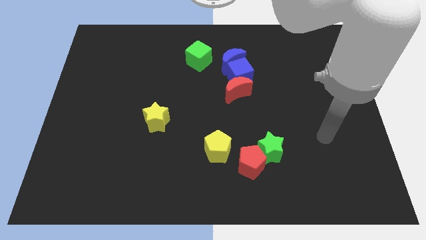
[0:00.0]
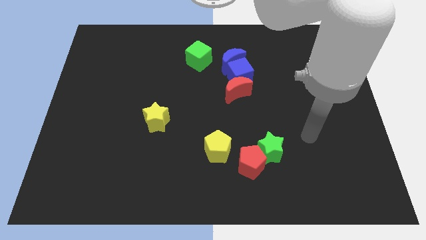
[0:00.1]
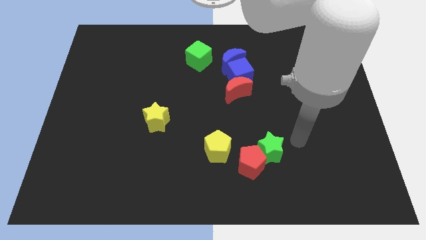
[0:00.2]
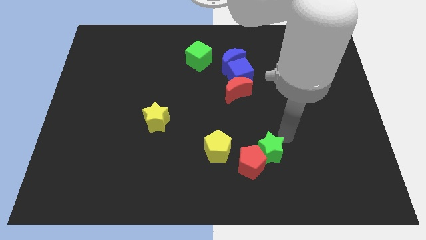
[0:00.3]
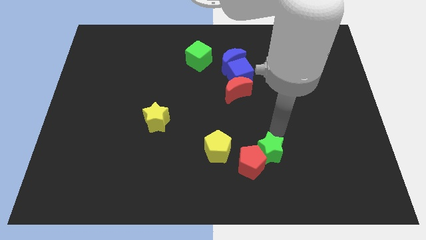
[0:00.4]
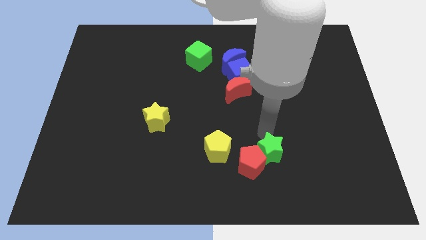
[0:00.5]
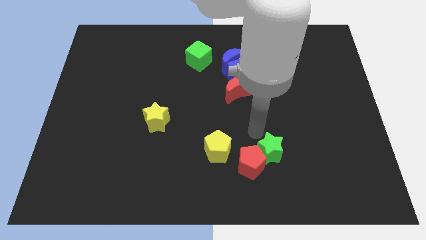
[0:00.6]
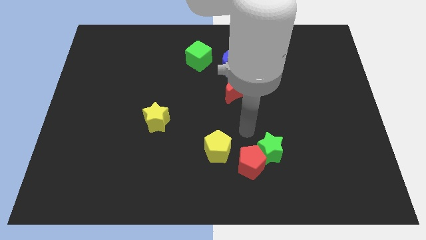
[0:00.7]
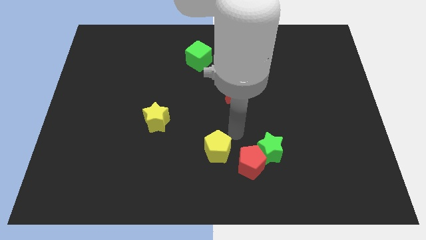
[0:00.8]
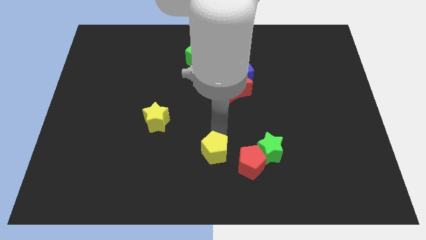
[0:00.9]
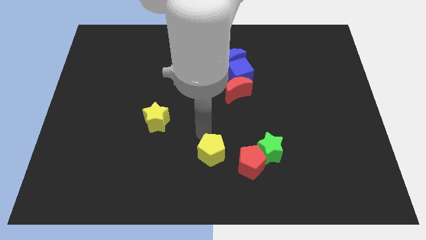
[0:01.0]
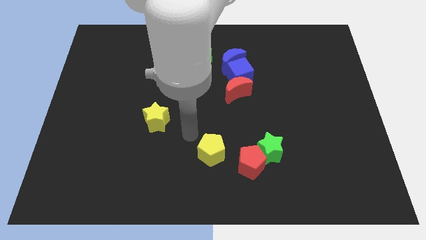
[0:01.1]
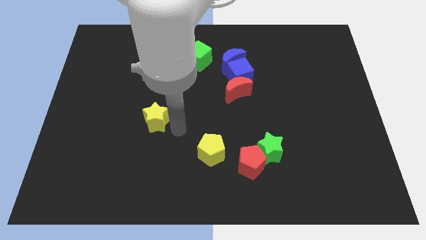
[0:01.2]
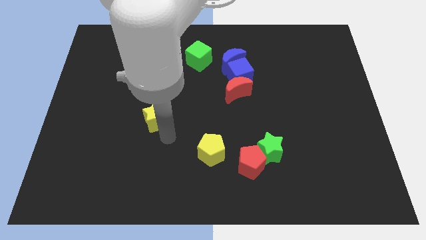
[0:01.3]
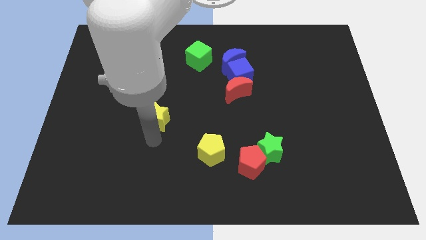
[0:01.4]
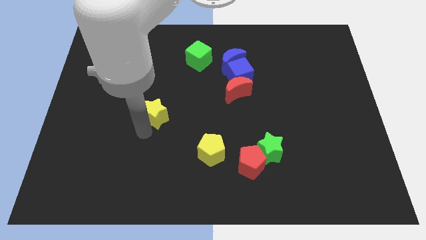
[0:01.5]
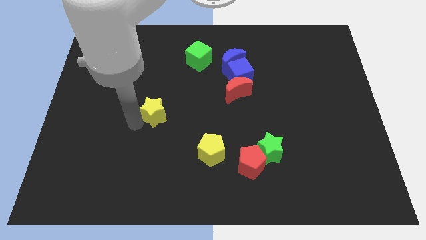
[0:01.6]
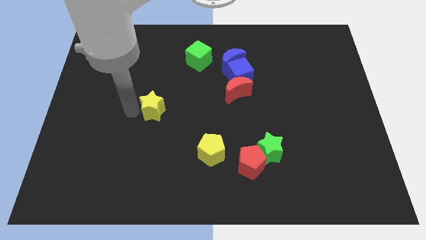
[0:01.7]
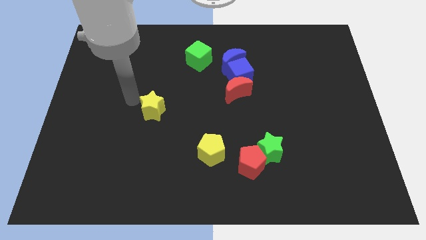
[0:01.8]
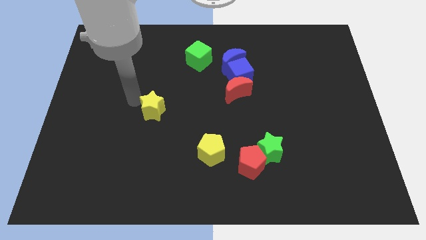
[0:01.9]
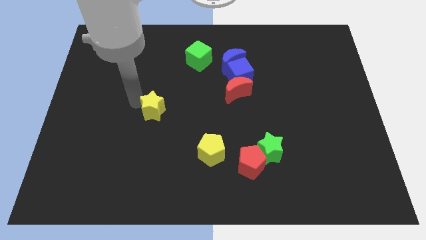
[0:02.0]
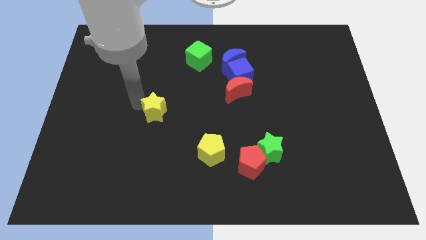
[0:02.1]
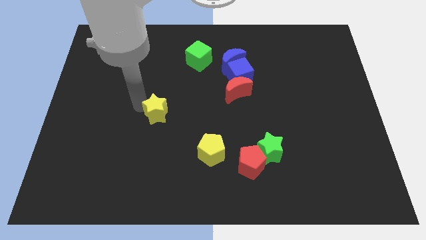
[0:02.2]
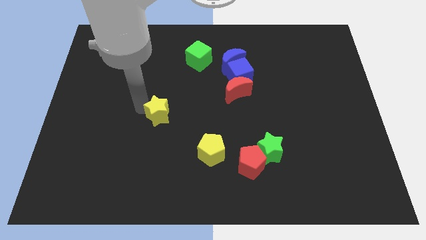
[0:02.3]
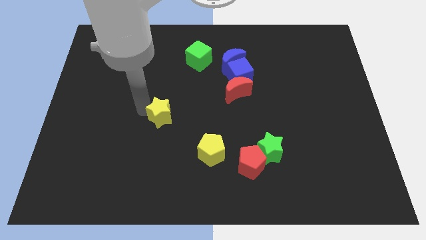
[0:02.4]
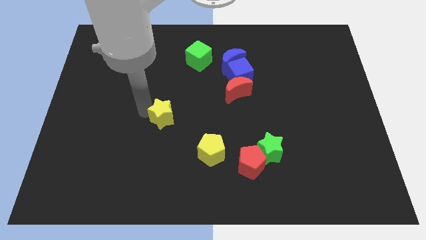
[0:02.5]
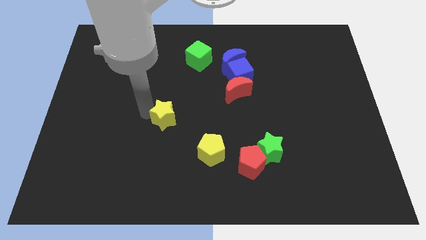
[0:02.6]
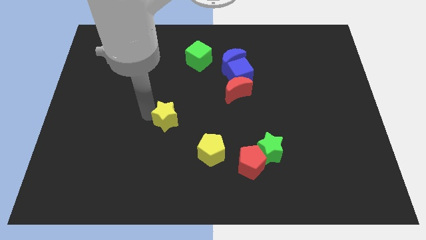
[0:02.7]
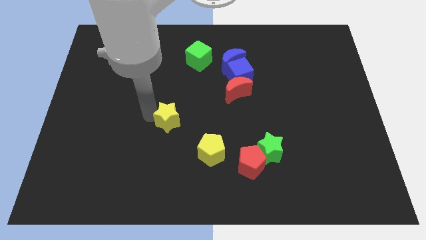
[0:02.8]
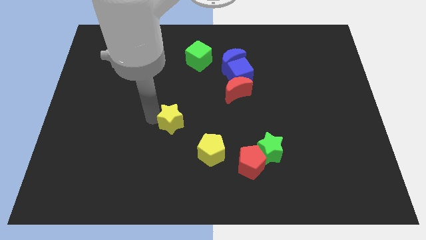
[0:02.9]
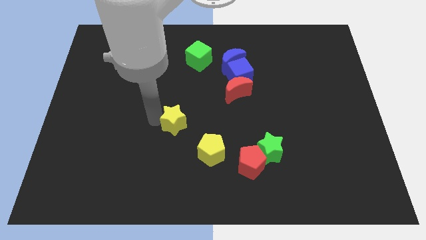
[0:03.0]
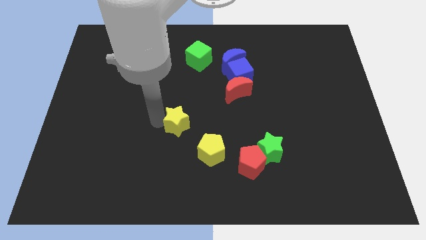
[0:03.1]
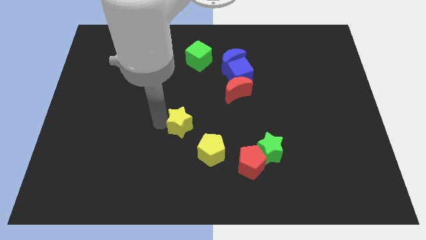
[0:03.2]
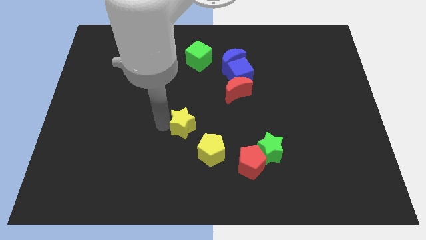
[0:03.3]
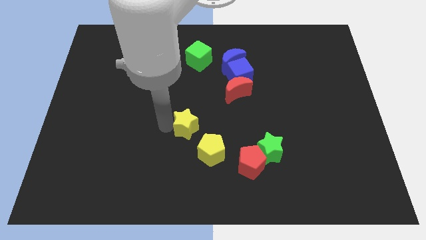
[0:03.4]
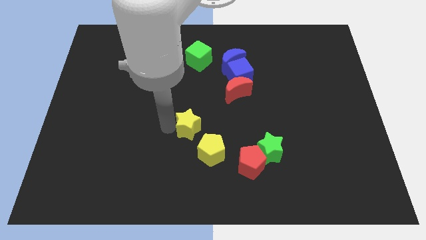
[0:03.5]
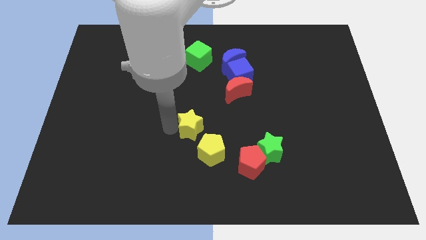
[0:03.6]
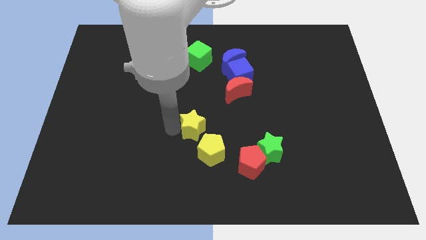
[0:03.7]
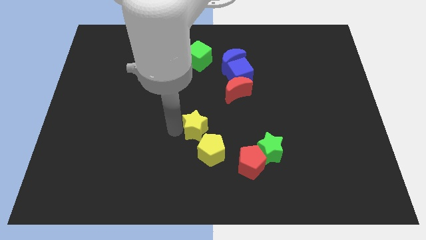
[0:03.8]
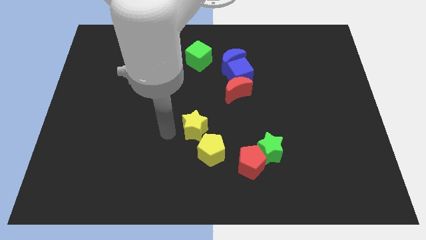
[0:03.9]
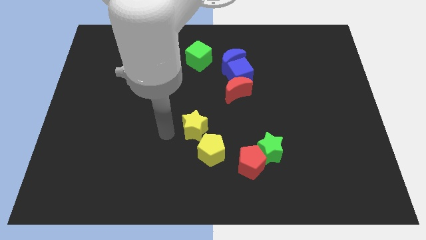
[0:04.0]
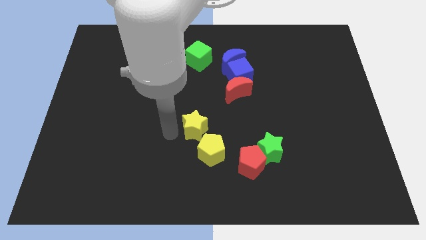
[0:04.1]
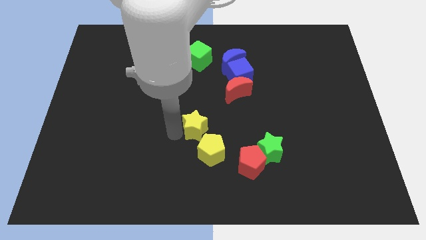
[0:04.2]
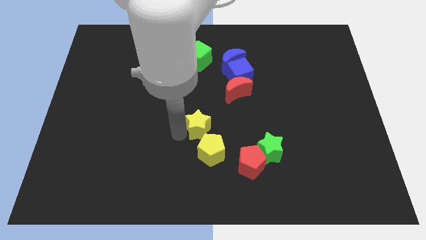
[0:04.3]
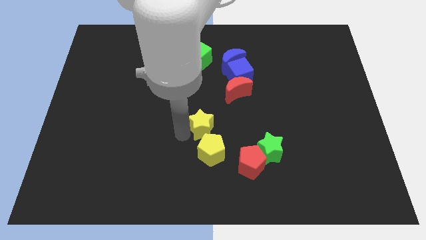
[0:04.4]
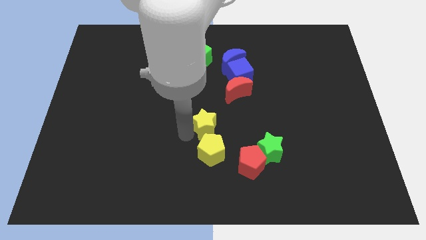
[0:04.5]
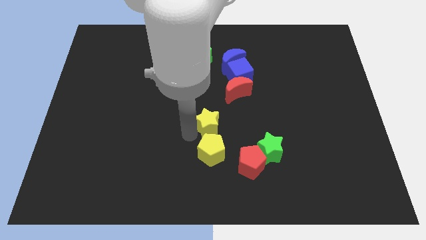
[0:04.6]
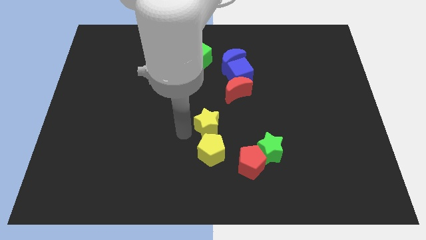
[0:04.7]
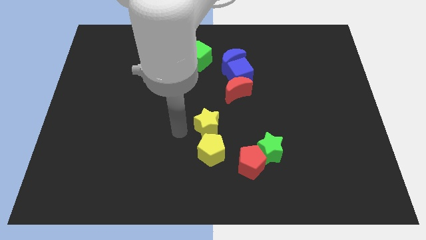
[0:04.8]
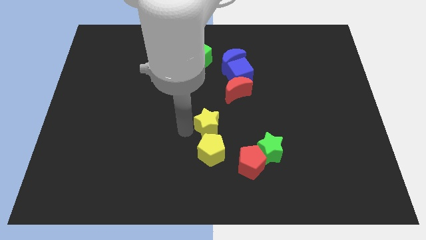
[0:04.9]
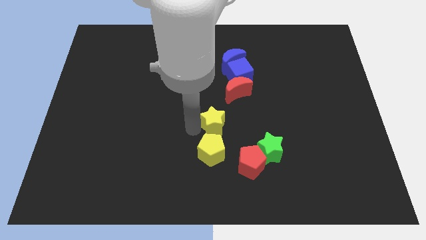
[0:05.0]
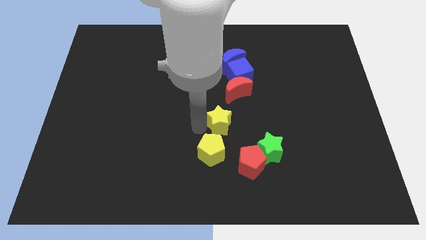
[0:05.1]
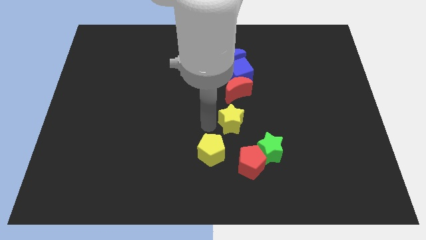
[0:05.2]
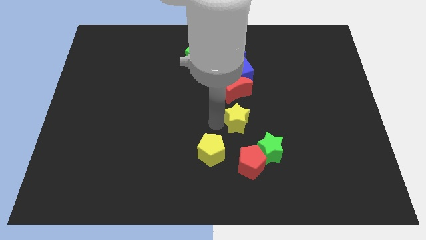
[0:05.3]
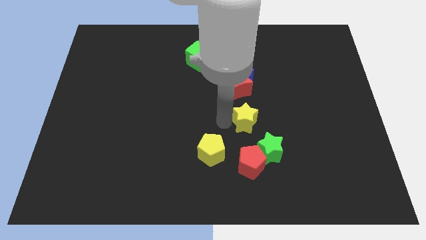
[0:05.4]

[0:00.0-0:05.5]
slide the yellow star right

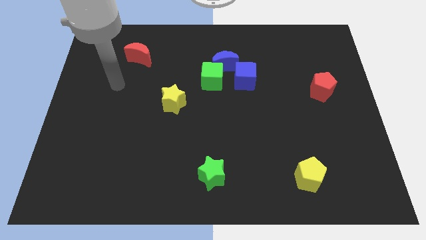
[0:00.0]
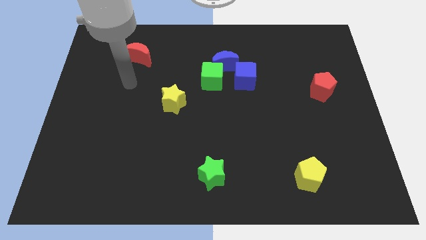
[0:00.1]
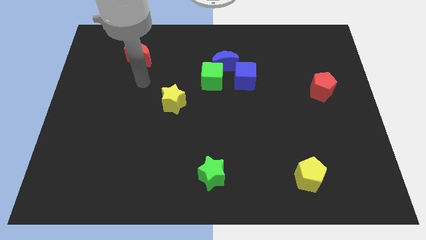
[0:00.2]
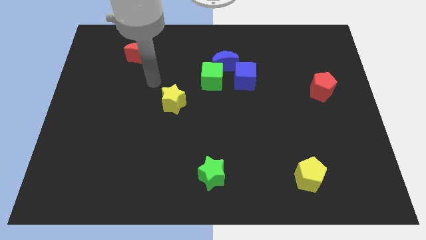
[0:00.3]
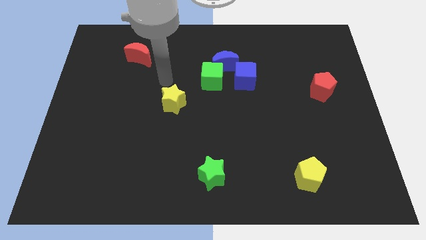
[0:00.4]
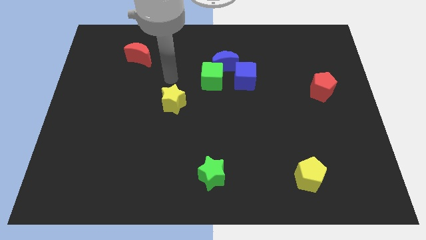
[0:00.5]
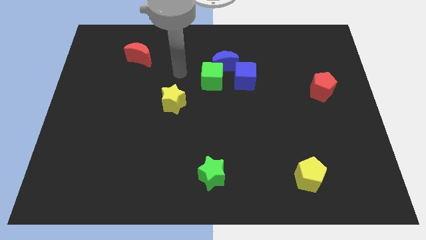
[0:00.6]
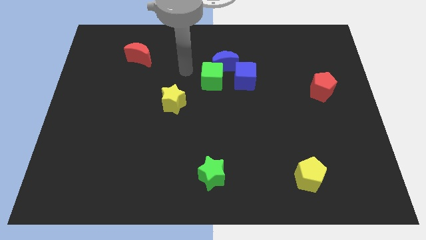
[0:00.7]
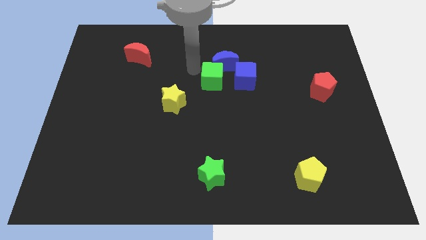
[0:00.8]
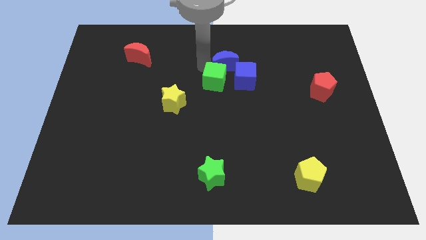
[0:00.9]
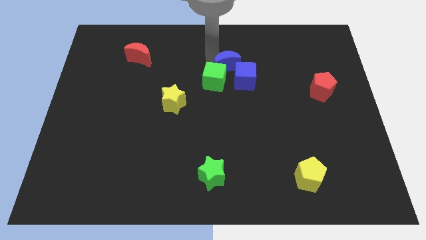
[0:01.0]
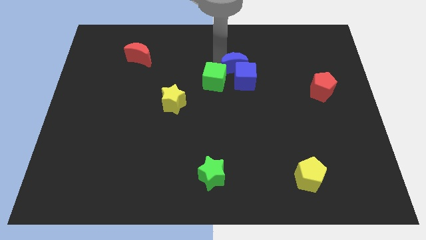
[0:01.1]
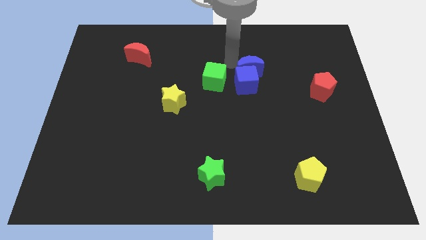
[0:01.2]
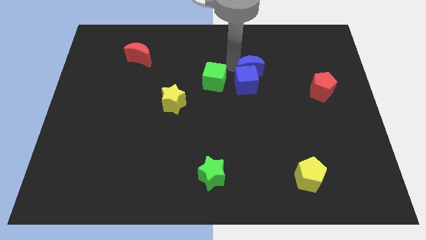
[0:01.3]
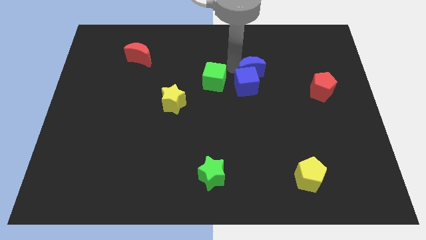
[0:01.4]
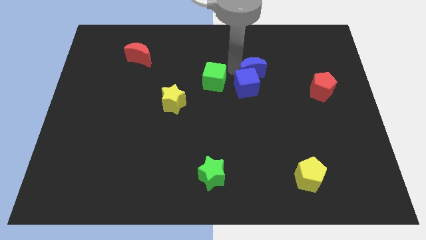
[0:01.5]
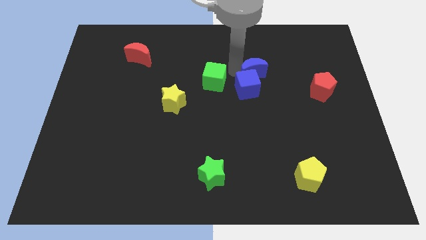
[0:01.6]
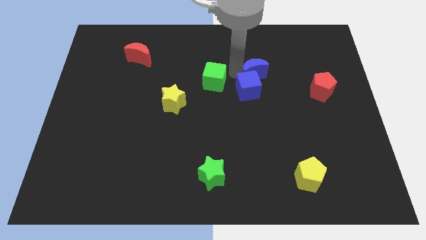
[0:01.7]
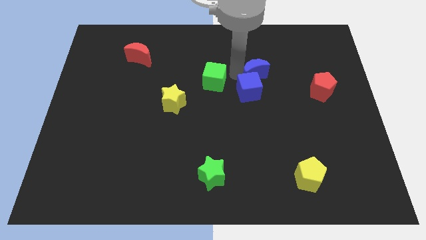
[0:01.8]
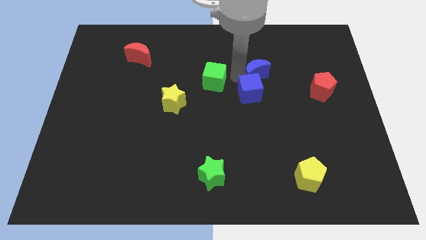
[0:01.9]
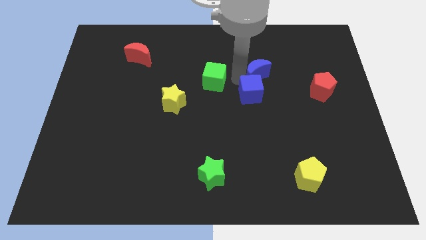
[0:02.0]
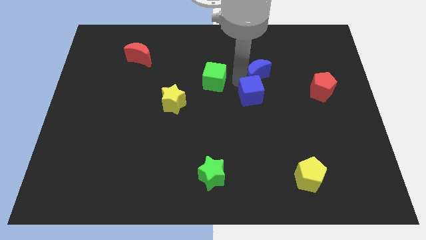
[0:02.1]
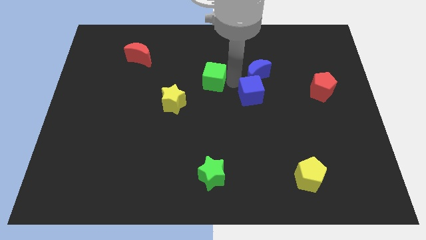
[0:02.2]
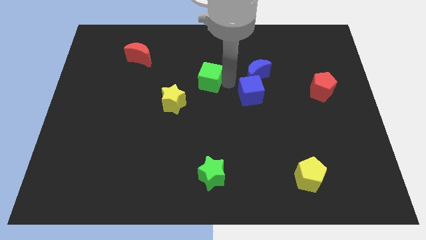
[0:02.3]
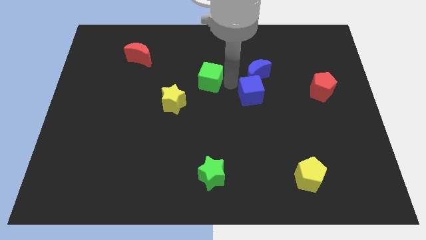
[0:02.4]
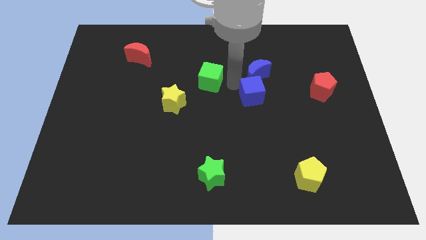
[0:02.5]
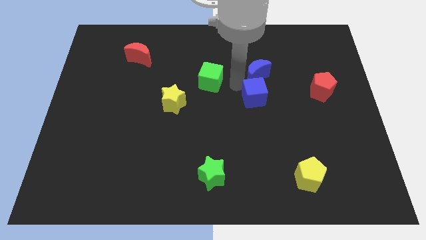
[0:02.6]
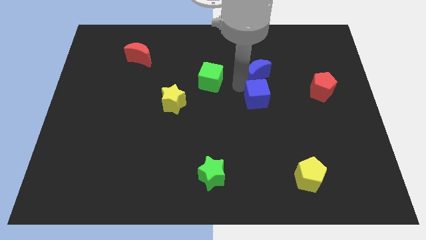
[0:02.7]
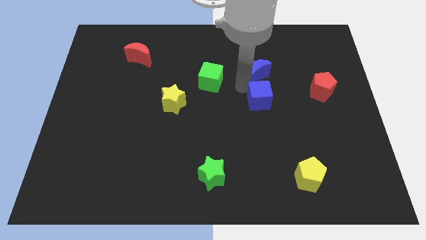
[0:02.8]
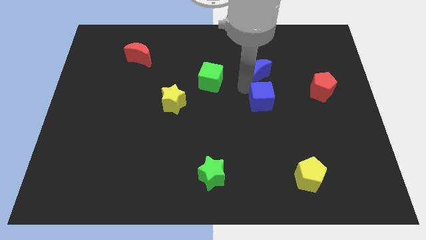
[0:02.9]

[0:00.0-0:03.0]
push the blue cube downwards and then right a little bit
